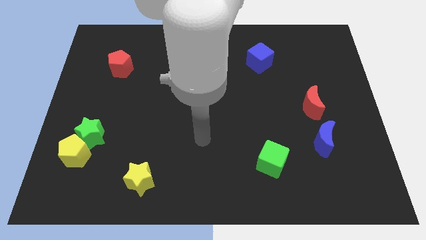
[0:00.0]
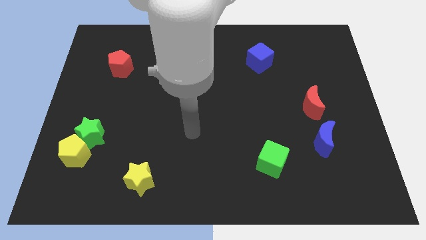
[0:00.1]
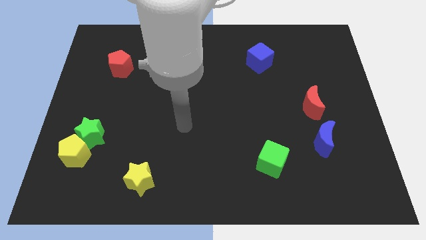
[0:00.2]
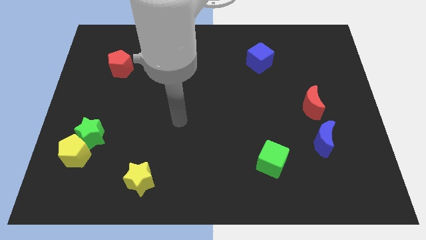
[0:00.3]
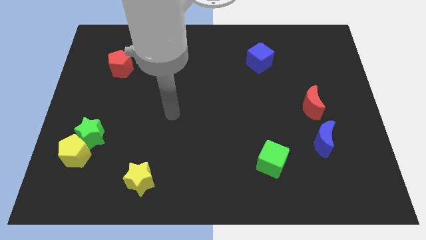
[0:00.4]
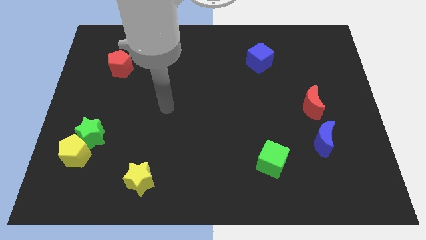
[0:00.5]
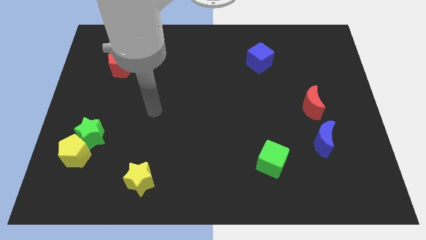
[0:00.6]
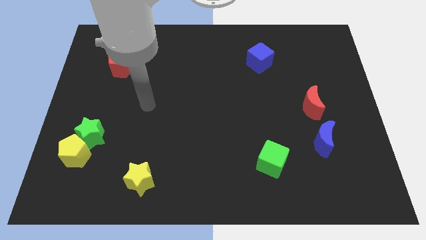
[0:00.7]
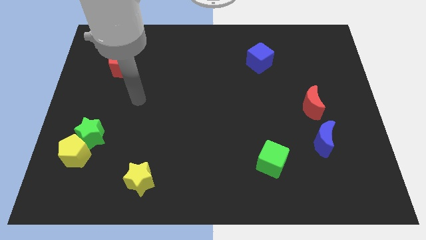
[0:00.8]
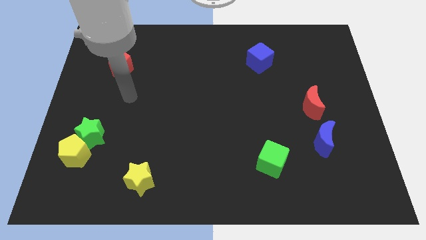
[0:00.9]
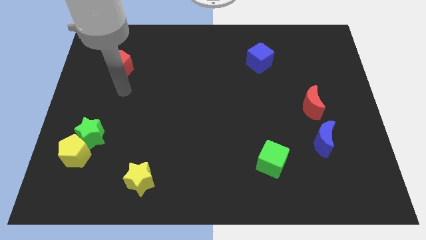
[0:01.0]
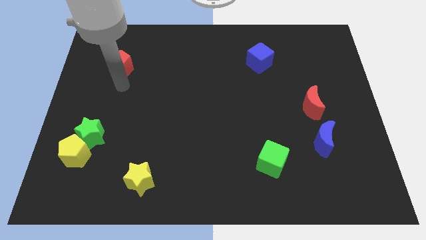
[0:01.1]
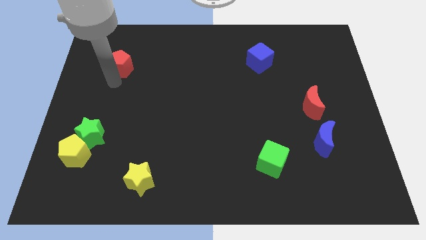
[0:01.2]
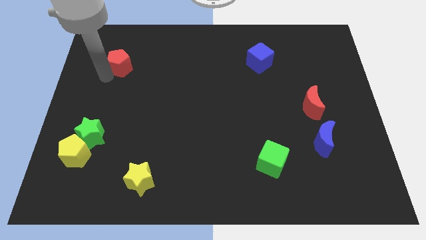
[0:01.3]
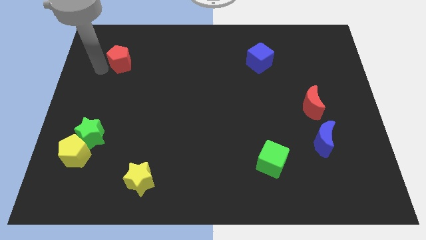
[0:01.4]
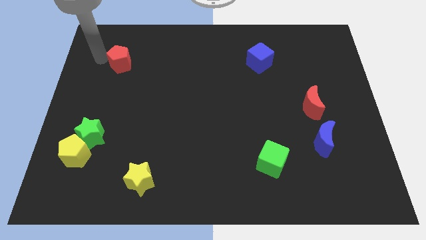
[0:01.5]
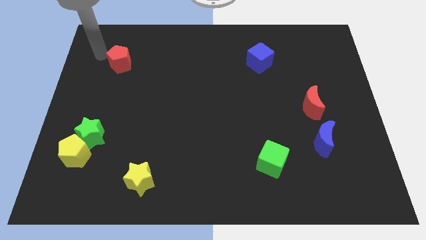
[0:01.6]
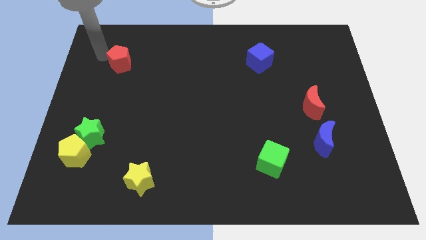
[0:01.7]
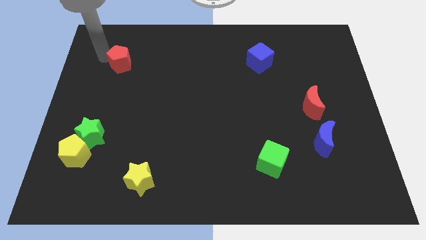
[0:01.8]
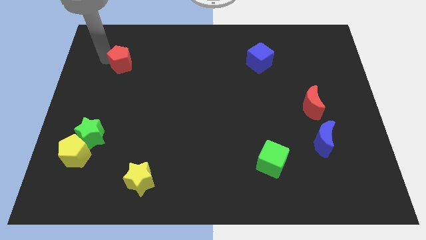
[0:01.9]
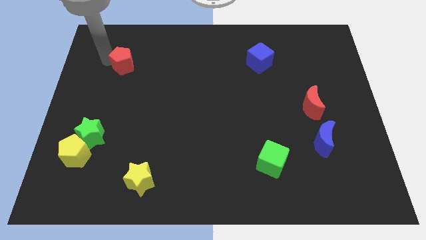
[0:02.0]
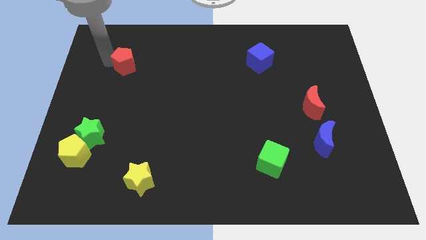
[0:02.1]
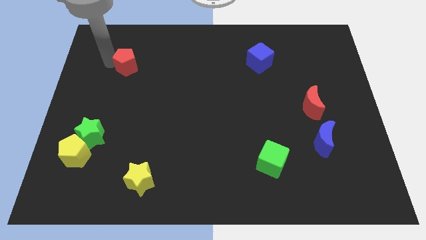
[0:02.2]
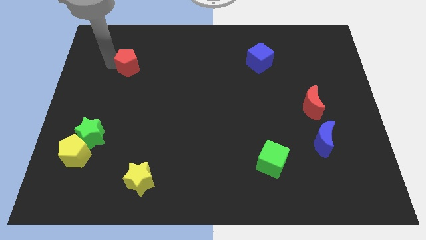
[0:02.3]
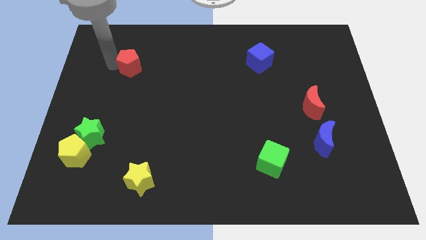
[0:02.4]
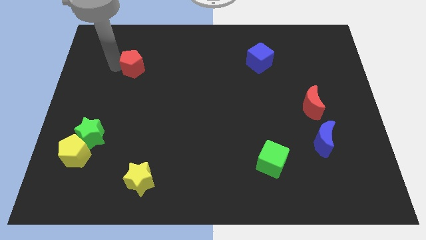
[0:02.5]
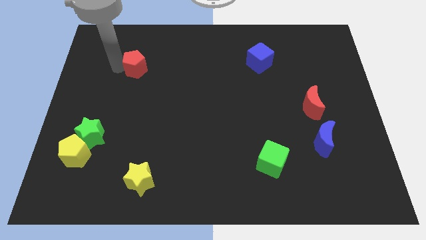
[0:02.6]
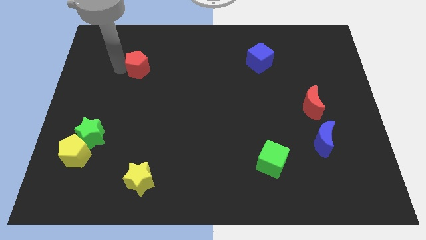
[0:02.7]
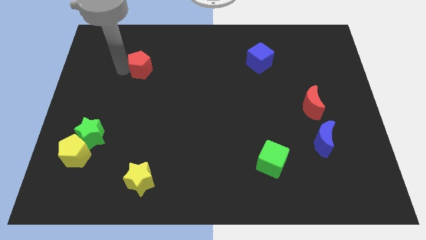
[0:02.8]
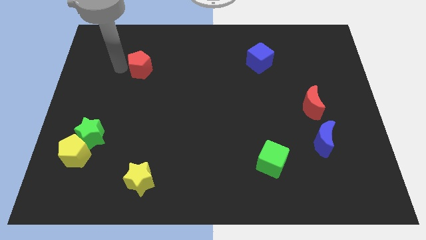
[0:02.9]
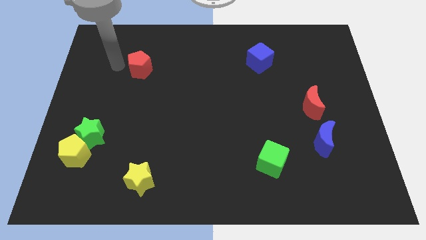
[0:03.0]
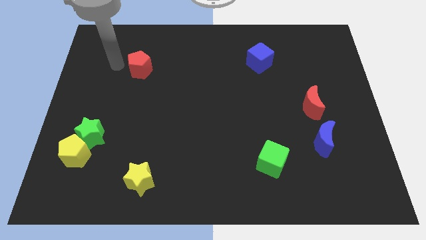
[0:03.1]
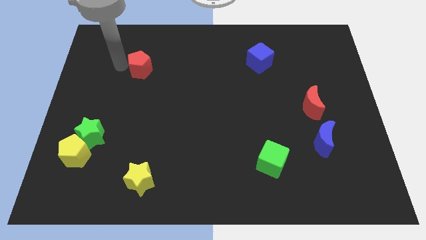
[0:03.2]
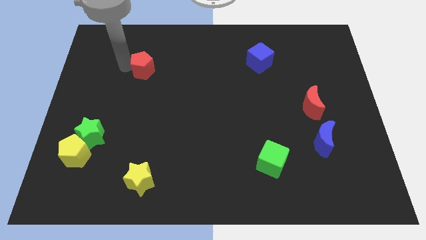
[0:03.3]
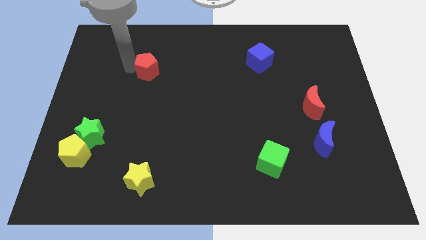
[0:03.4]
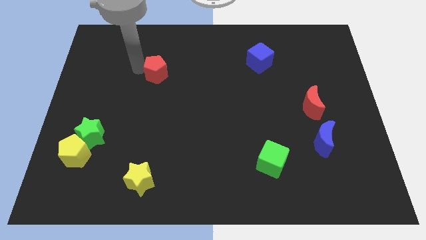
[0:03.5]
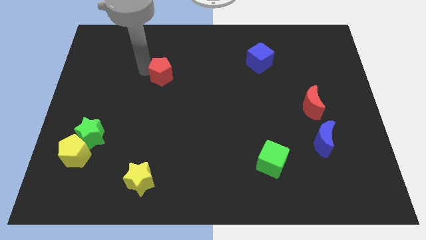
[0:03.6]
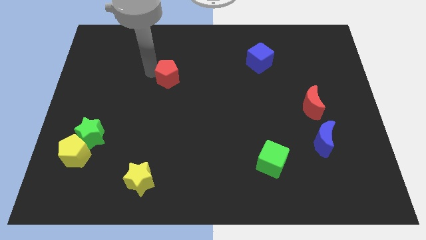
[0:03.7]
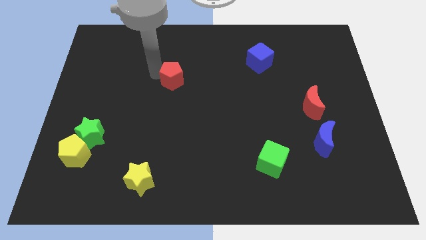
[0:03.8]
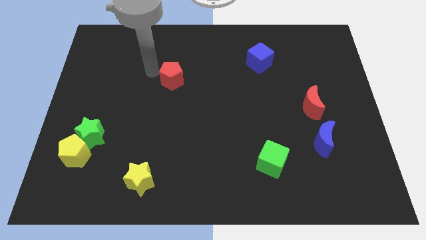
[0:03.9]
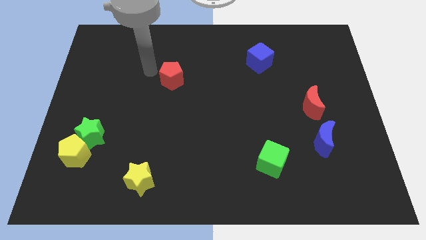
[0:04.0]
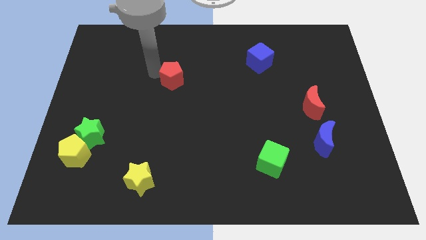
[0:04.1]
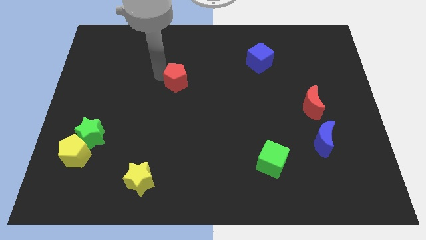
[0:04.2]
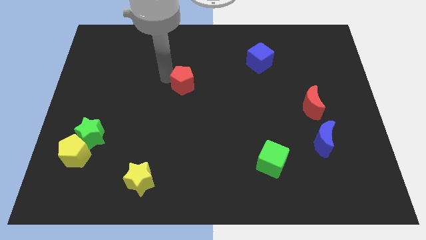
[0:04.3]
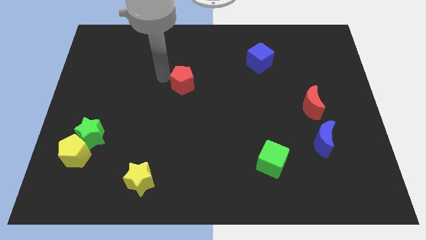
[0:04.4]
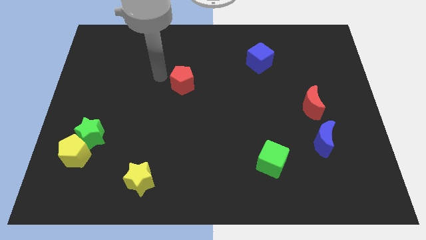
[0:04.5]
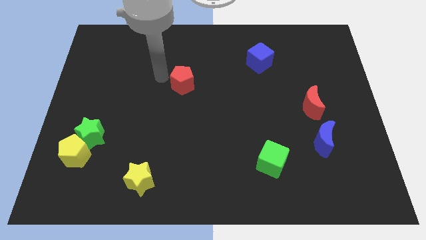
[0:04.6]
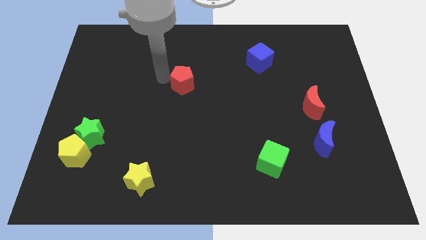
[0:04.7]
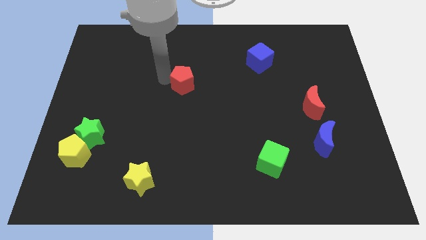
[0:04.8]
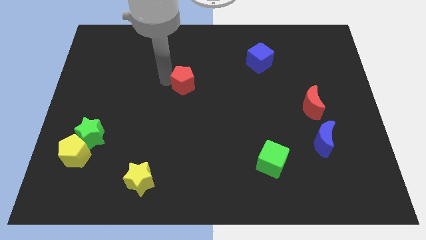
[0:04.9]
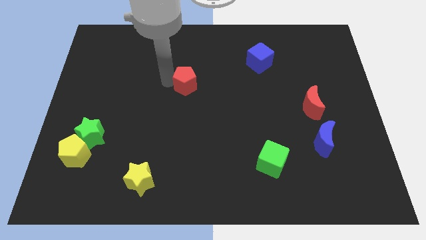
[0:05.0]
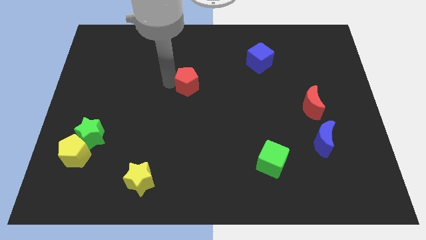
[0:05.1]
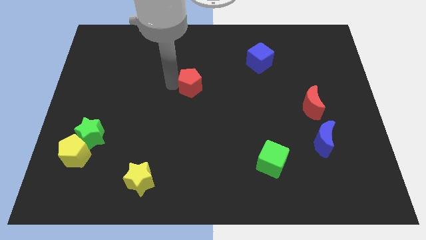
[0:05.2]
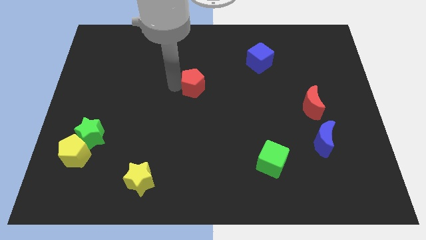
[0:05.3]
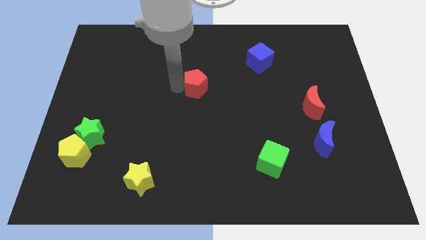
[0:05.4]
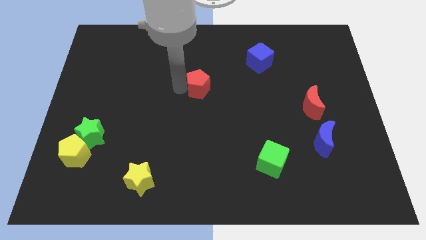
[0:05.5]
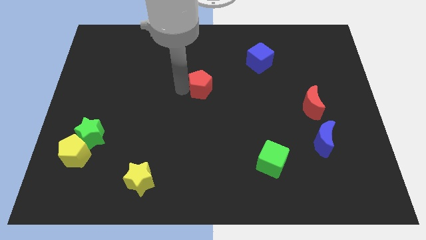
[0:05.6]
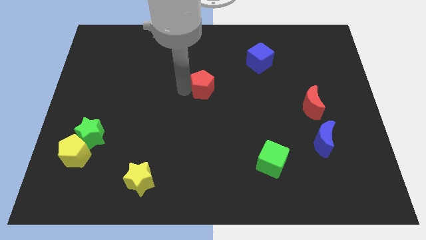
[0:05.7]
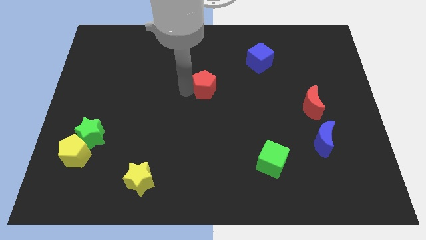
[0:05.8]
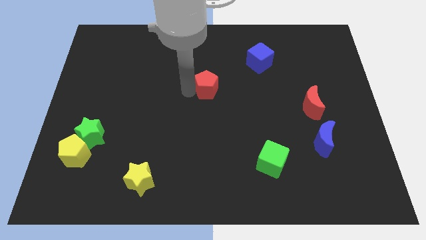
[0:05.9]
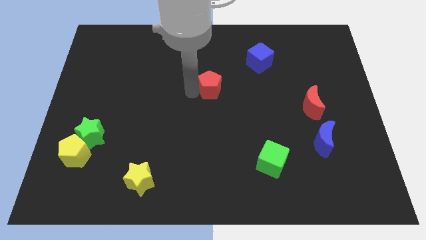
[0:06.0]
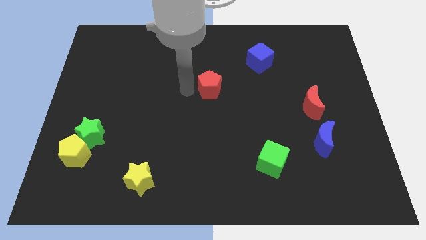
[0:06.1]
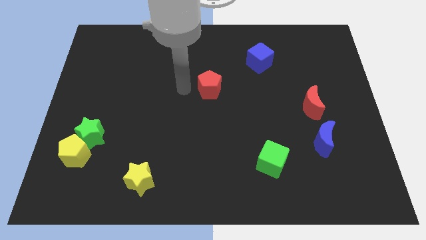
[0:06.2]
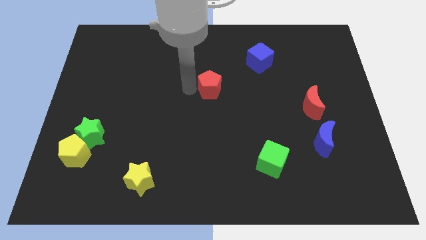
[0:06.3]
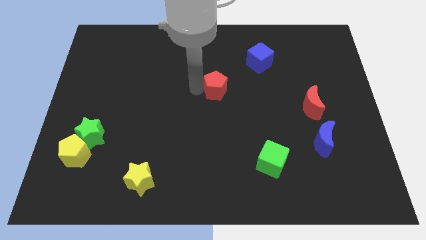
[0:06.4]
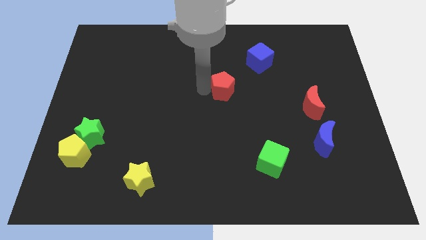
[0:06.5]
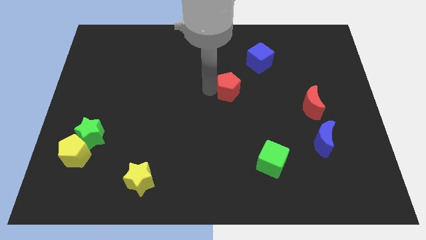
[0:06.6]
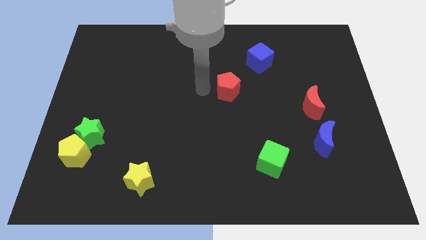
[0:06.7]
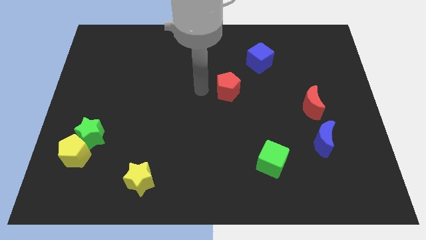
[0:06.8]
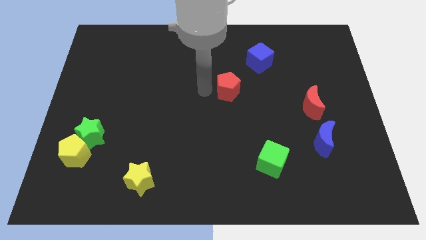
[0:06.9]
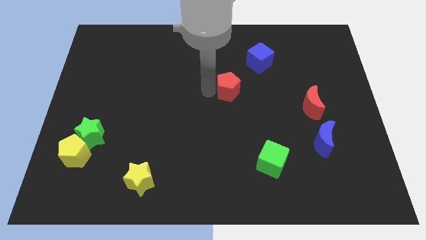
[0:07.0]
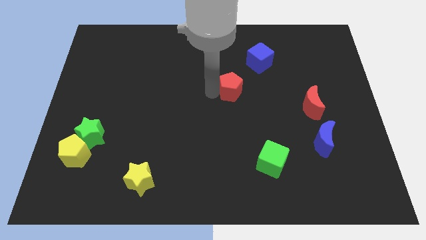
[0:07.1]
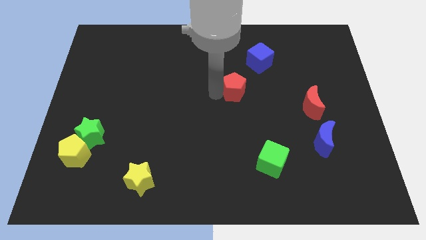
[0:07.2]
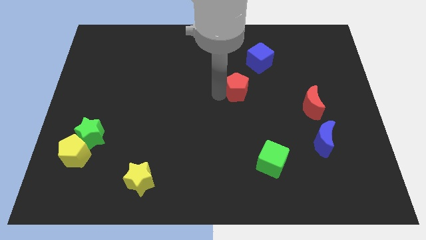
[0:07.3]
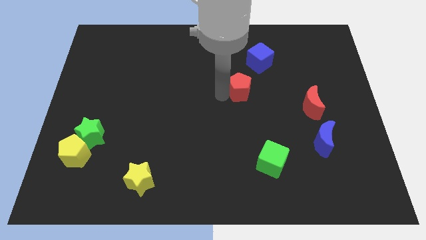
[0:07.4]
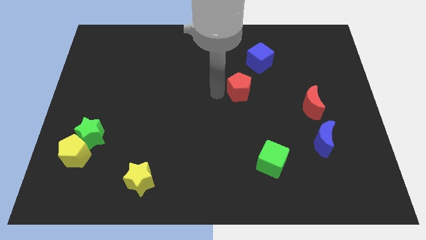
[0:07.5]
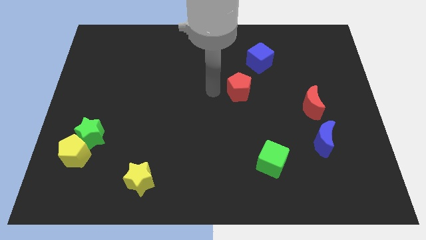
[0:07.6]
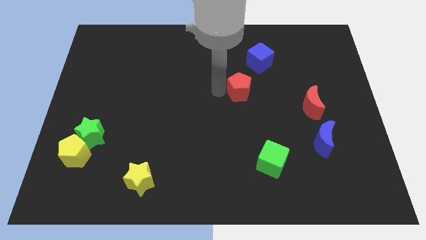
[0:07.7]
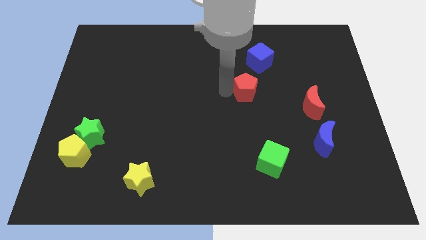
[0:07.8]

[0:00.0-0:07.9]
move the red pentagon to the bottom side of the blue cube
